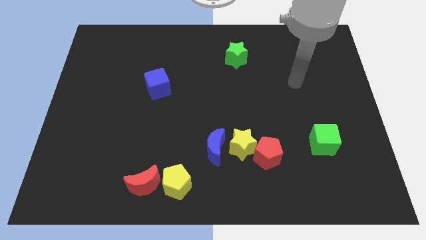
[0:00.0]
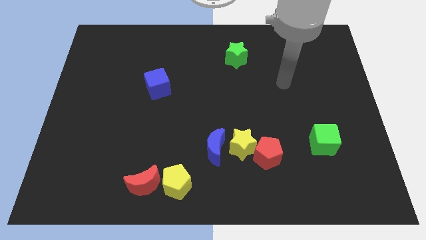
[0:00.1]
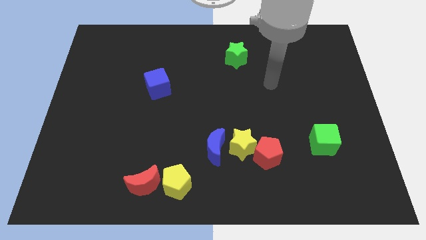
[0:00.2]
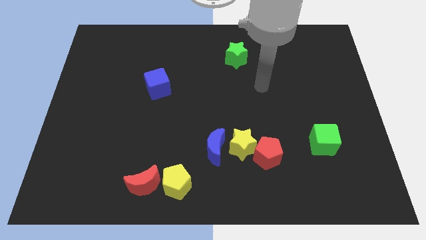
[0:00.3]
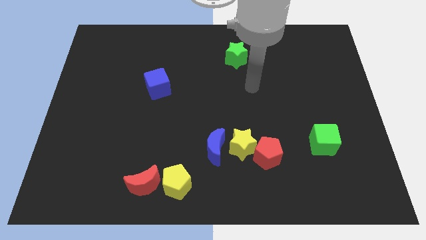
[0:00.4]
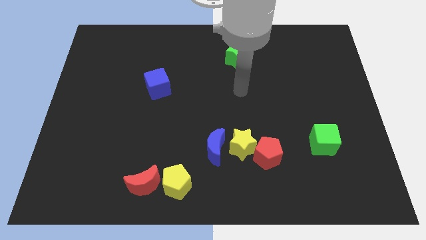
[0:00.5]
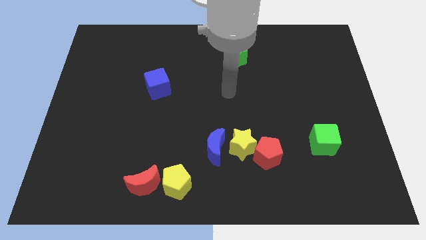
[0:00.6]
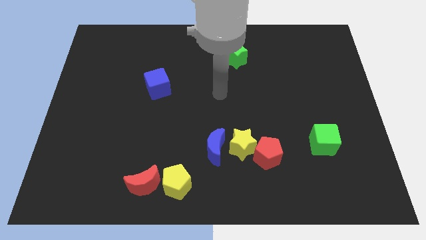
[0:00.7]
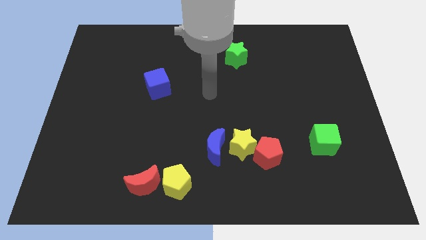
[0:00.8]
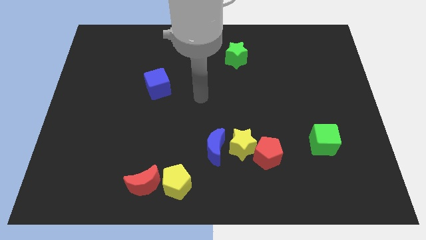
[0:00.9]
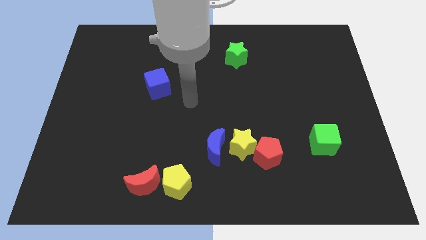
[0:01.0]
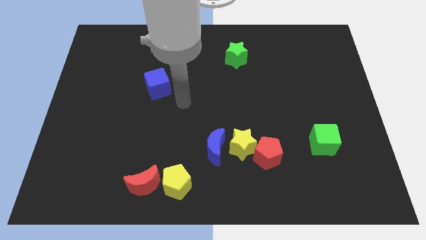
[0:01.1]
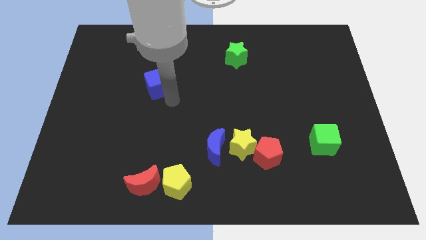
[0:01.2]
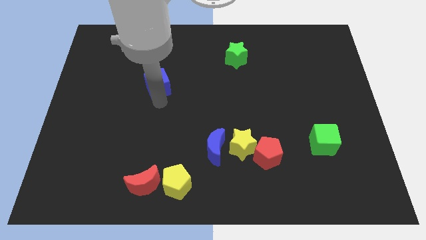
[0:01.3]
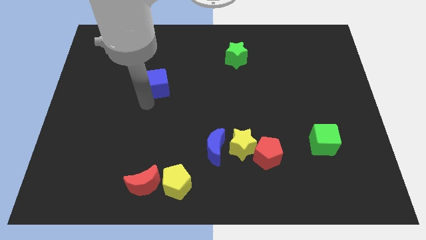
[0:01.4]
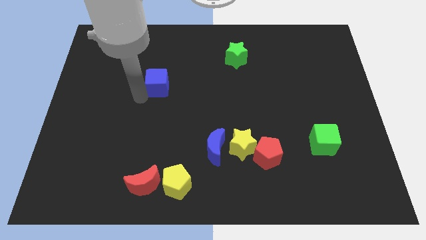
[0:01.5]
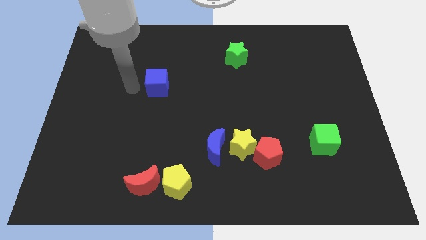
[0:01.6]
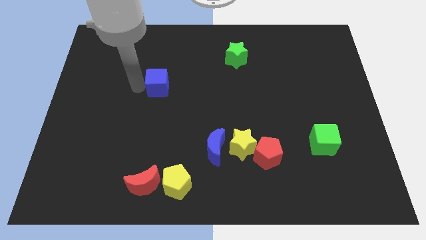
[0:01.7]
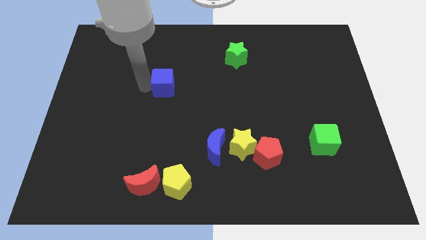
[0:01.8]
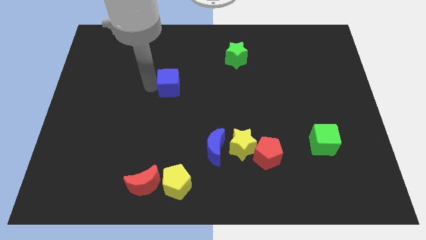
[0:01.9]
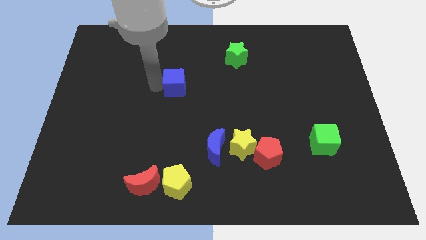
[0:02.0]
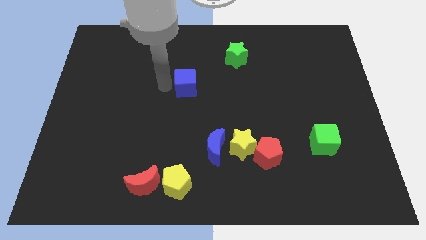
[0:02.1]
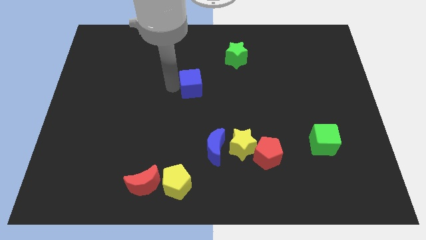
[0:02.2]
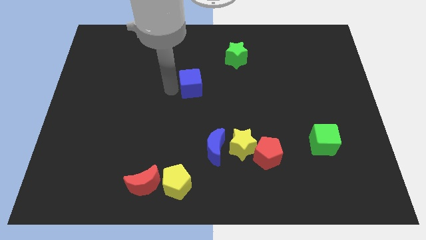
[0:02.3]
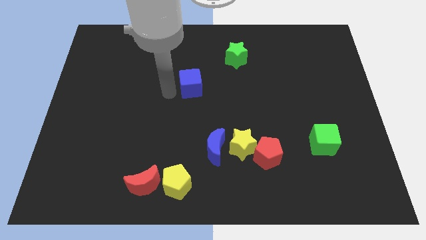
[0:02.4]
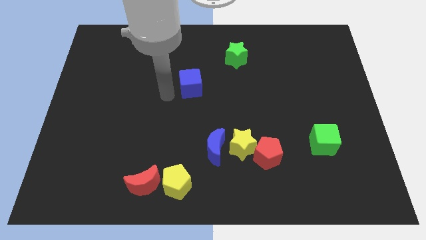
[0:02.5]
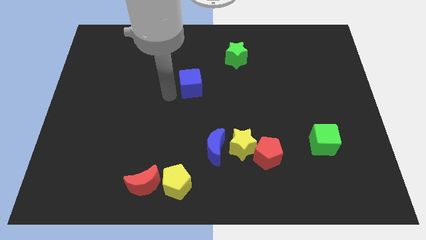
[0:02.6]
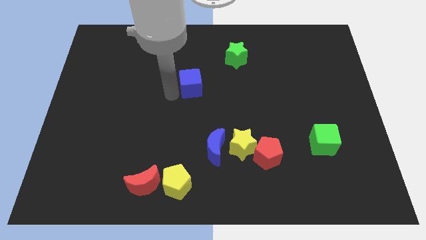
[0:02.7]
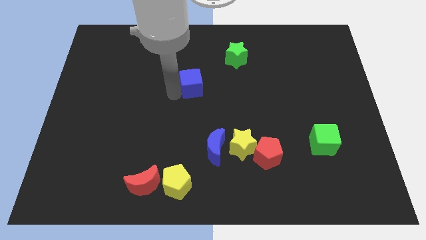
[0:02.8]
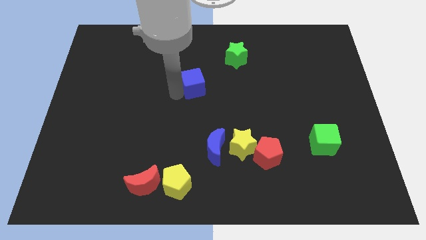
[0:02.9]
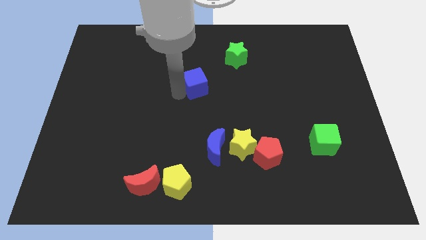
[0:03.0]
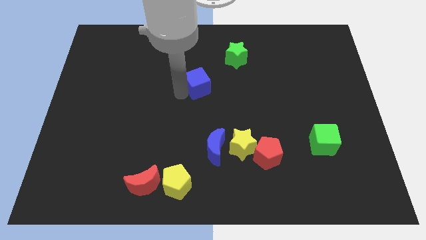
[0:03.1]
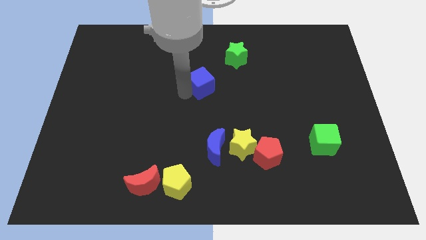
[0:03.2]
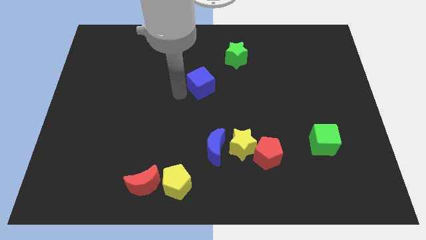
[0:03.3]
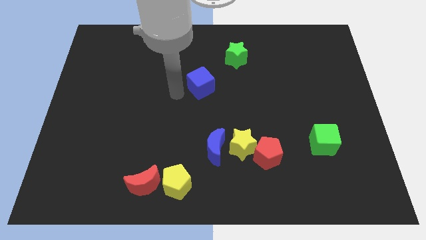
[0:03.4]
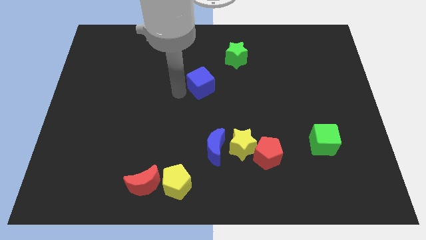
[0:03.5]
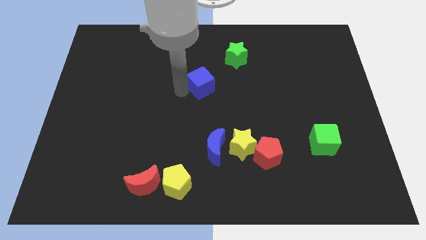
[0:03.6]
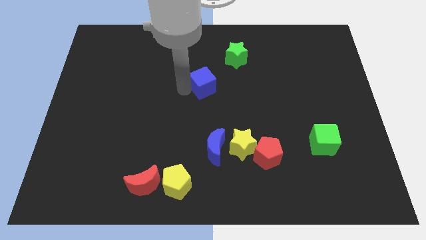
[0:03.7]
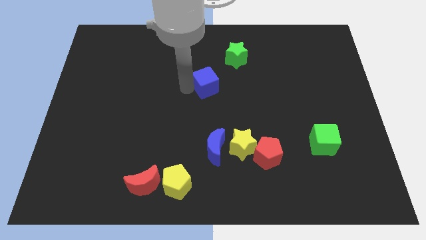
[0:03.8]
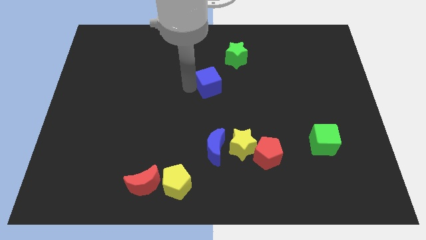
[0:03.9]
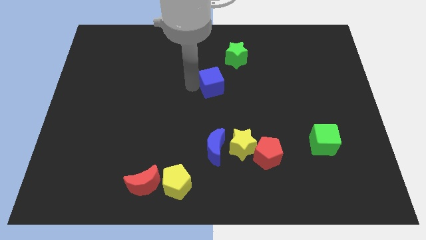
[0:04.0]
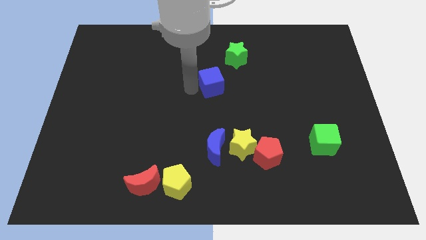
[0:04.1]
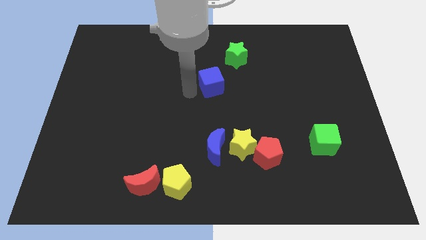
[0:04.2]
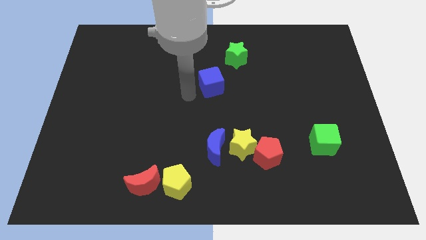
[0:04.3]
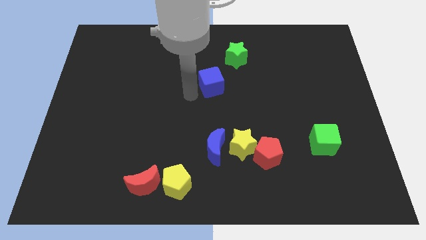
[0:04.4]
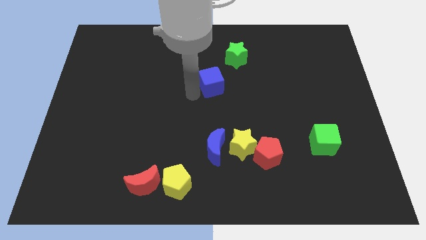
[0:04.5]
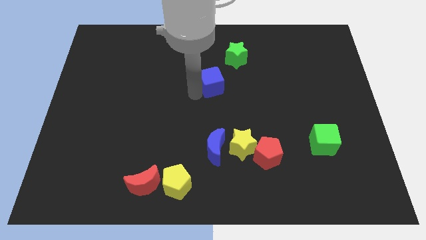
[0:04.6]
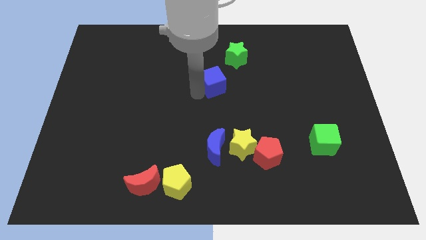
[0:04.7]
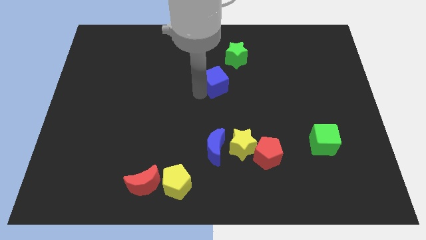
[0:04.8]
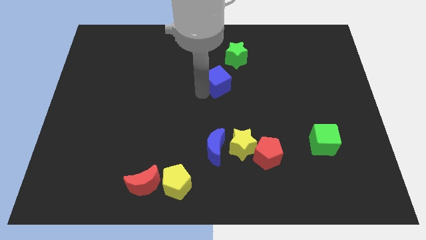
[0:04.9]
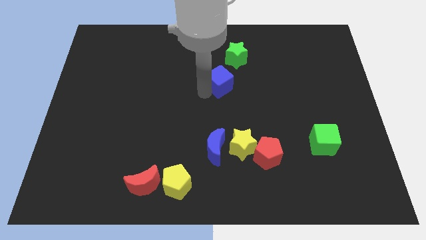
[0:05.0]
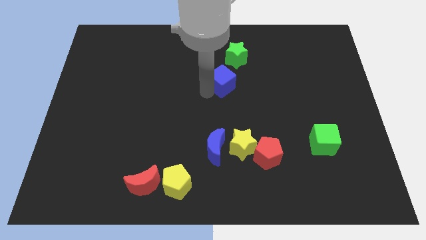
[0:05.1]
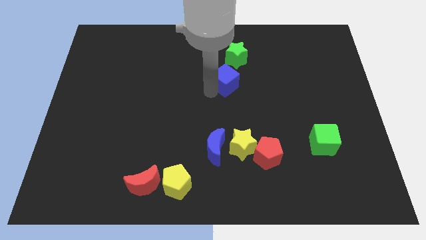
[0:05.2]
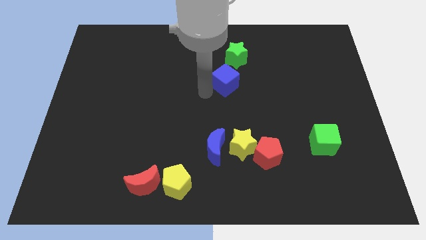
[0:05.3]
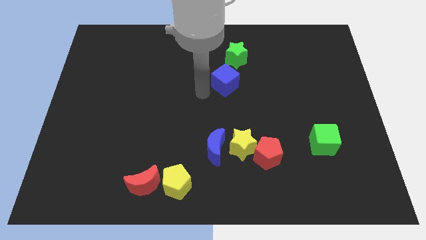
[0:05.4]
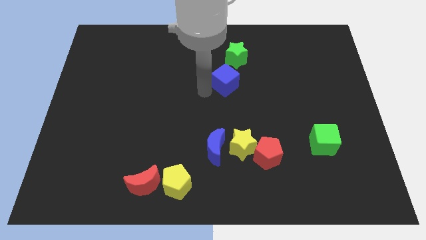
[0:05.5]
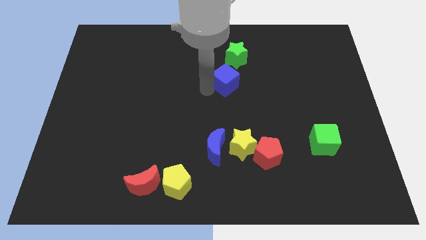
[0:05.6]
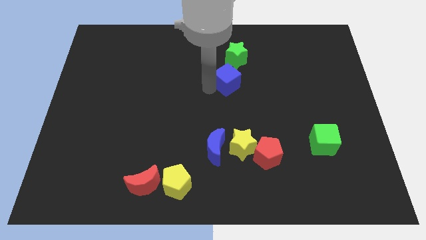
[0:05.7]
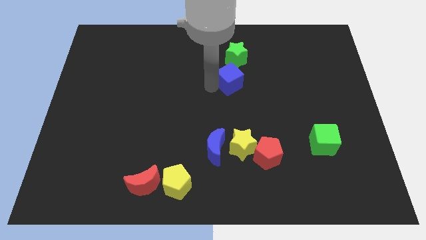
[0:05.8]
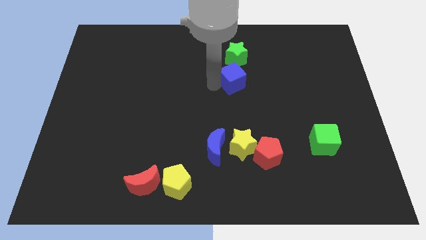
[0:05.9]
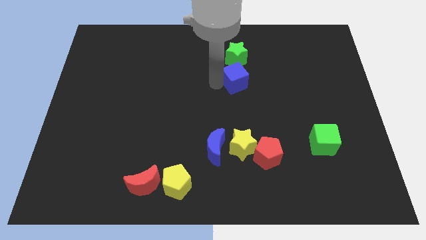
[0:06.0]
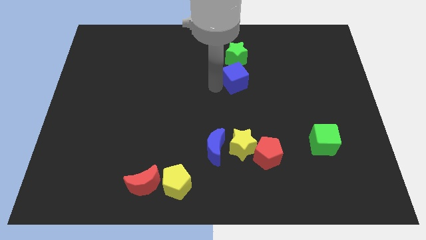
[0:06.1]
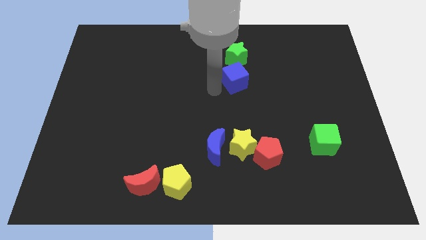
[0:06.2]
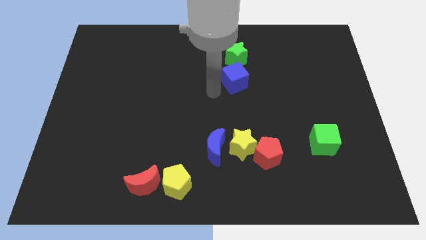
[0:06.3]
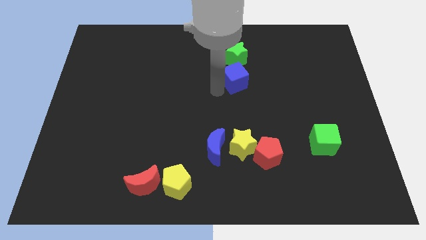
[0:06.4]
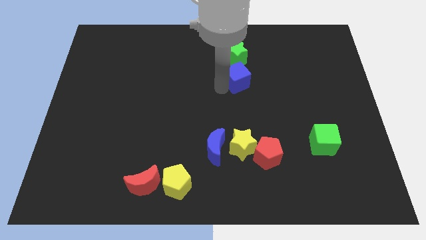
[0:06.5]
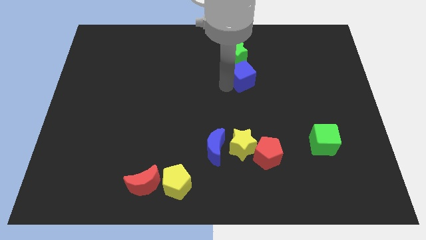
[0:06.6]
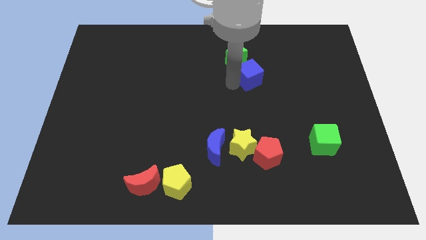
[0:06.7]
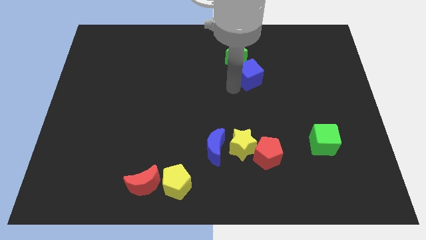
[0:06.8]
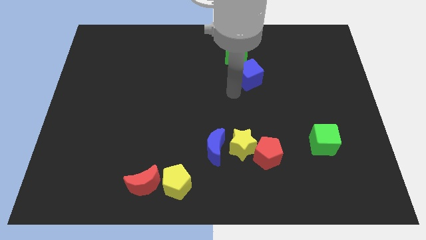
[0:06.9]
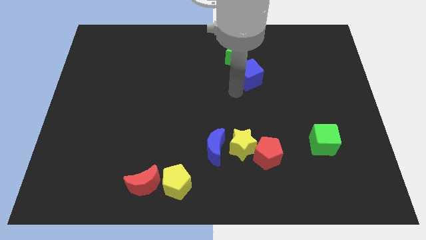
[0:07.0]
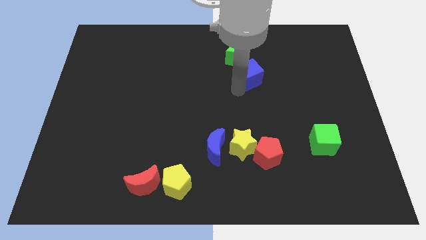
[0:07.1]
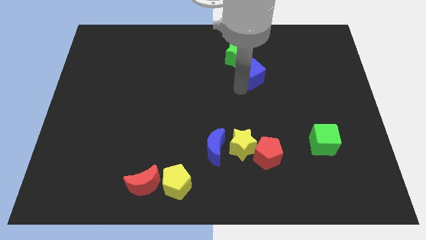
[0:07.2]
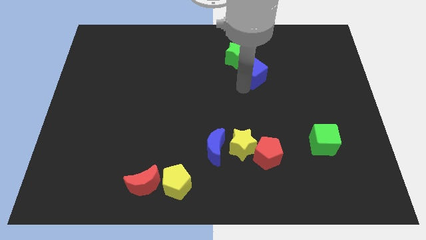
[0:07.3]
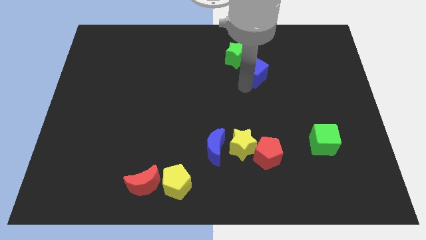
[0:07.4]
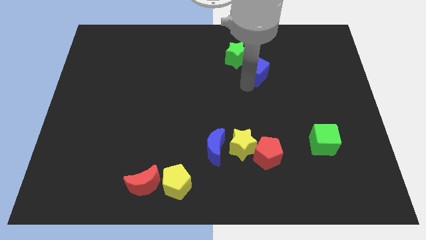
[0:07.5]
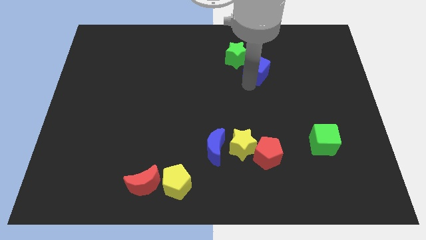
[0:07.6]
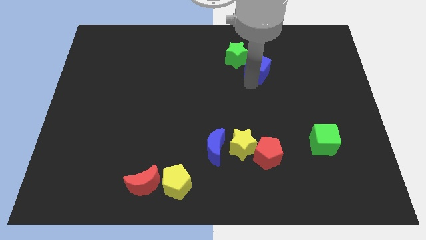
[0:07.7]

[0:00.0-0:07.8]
move the blue cube to the right of the green star
